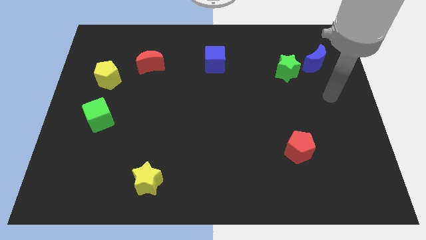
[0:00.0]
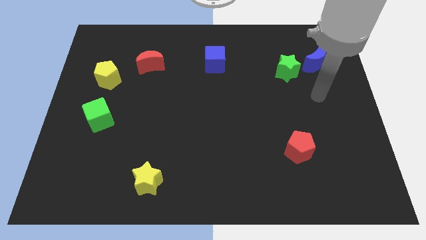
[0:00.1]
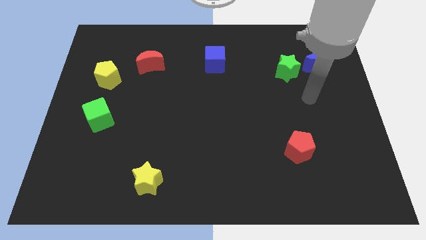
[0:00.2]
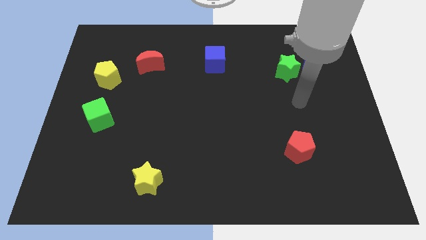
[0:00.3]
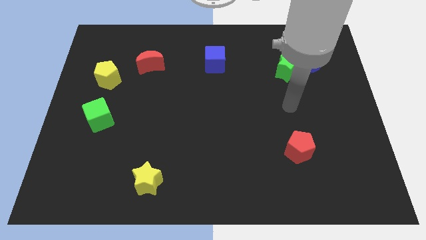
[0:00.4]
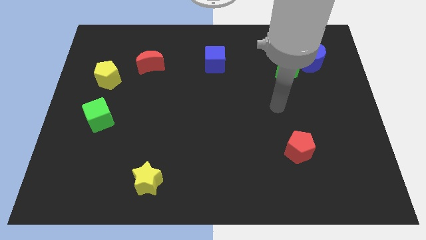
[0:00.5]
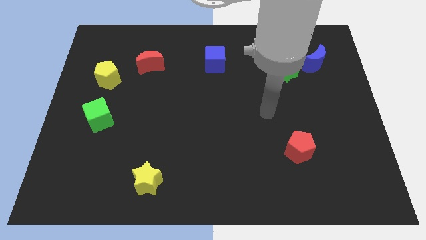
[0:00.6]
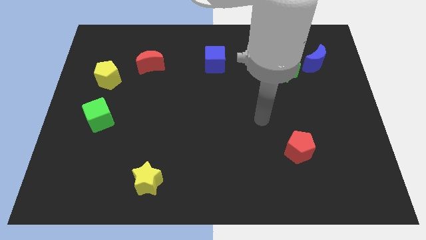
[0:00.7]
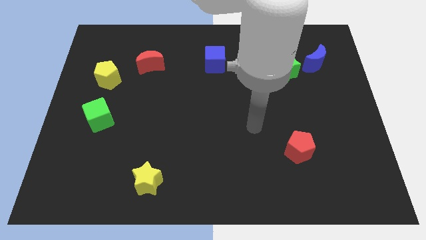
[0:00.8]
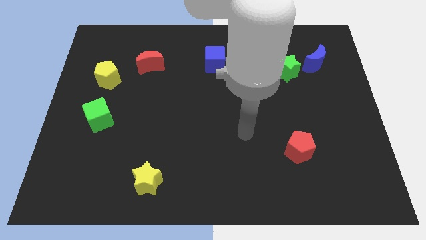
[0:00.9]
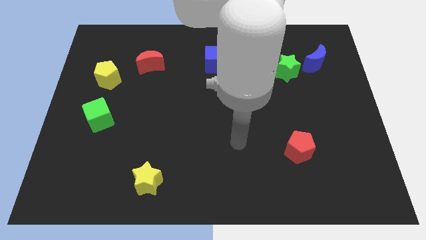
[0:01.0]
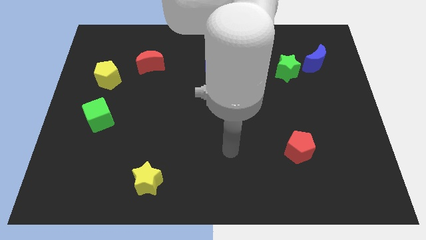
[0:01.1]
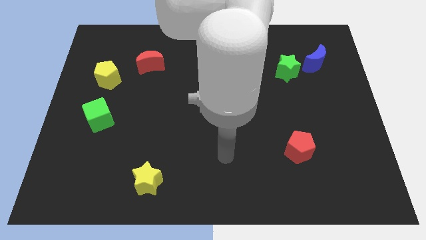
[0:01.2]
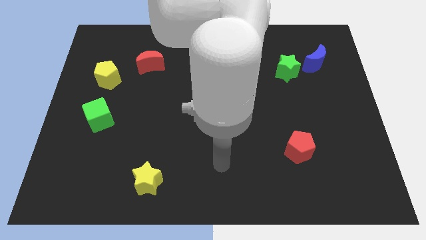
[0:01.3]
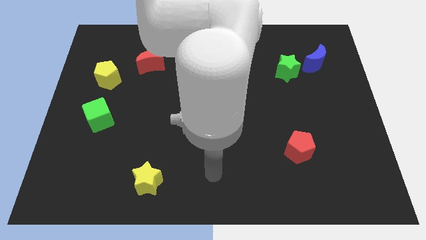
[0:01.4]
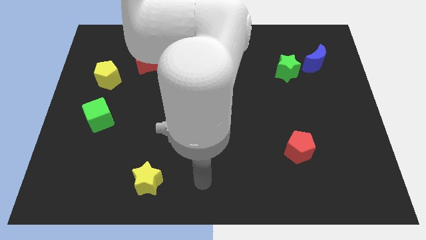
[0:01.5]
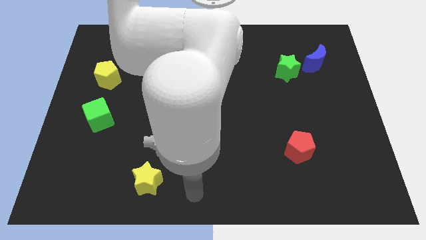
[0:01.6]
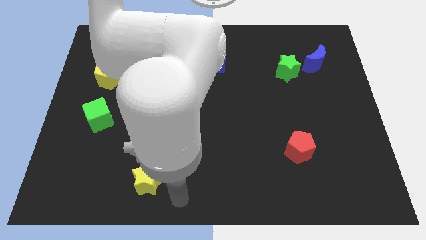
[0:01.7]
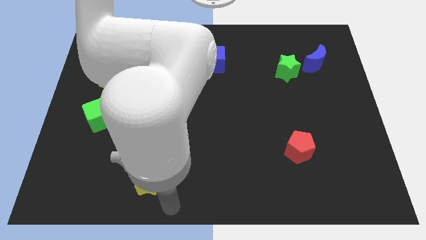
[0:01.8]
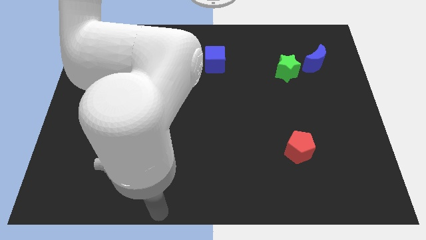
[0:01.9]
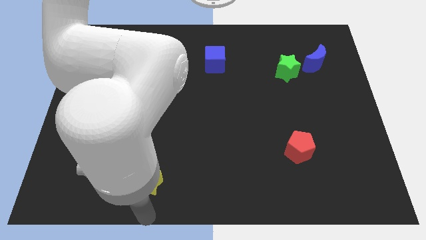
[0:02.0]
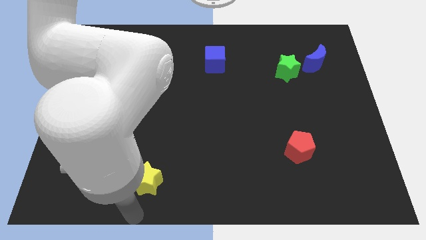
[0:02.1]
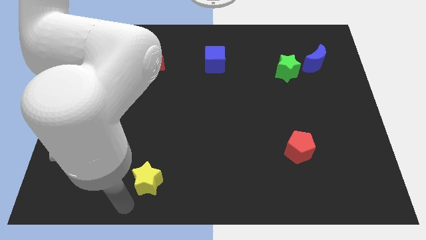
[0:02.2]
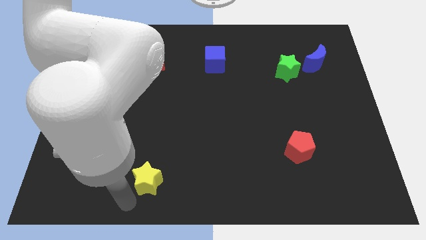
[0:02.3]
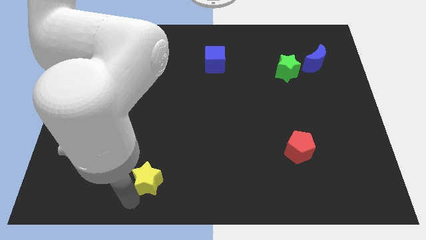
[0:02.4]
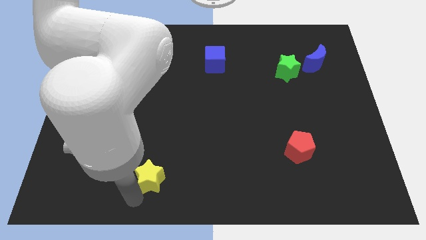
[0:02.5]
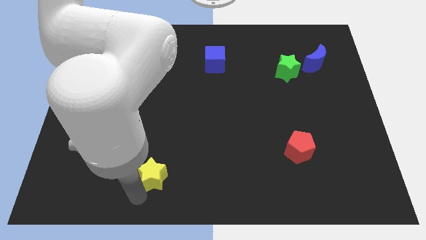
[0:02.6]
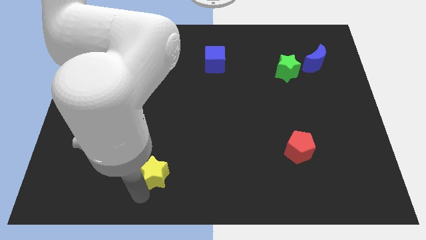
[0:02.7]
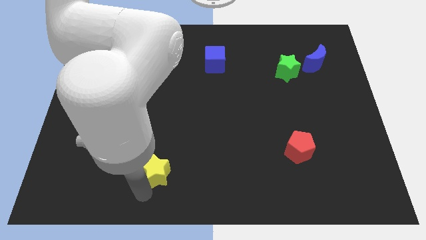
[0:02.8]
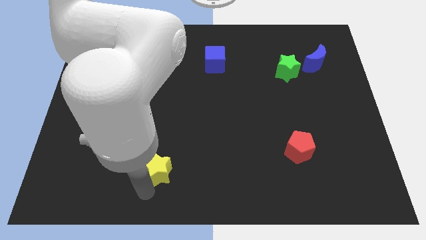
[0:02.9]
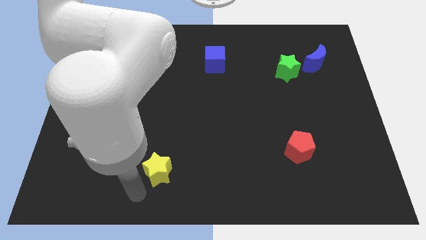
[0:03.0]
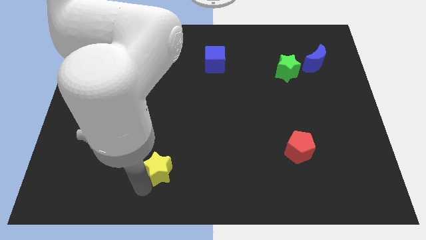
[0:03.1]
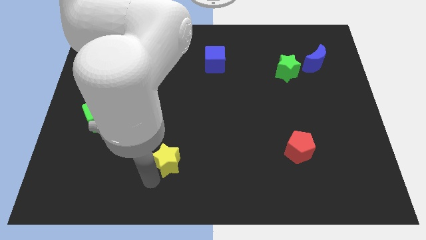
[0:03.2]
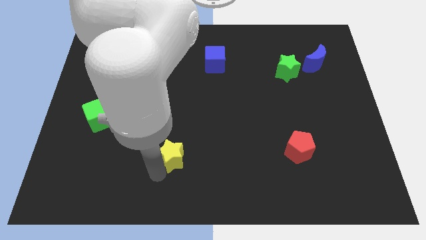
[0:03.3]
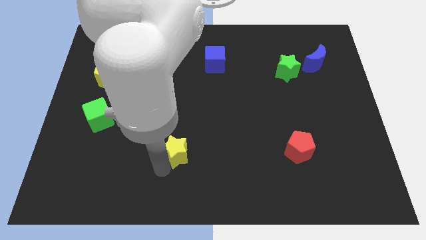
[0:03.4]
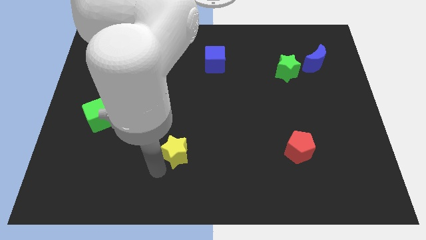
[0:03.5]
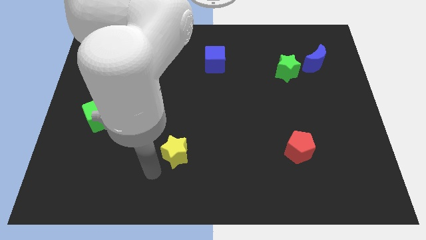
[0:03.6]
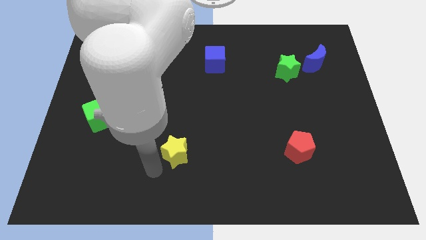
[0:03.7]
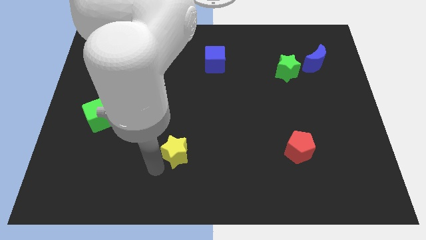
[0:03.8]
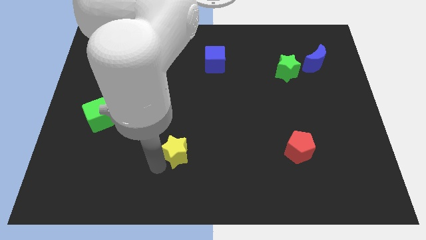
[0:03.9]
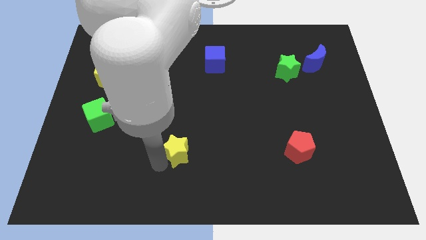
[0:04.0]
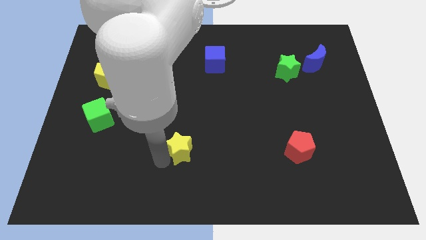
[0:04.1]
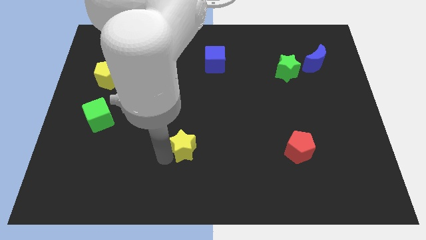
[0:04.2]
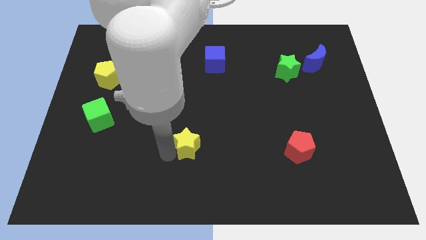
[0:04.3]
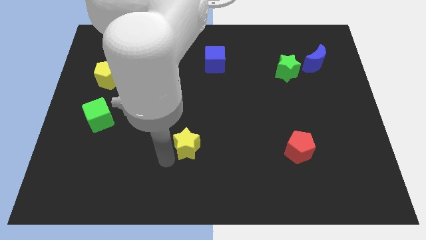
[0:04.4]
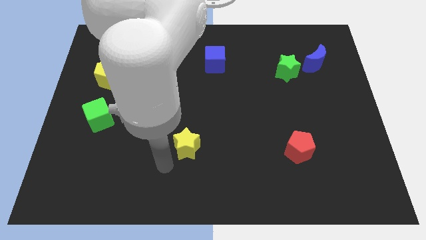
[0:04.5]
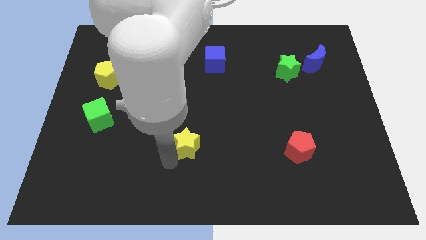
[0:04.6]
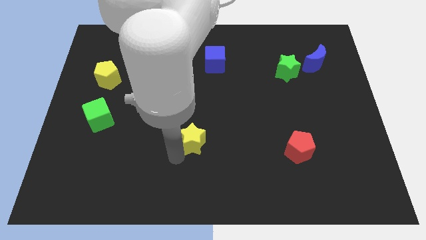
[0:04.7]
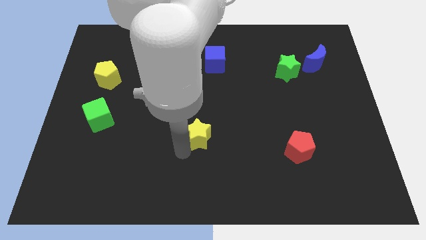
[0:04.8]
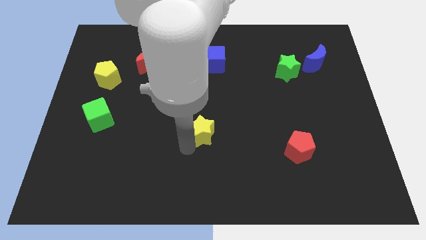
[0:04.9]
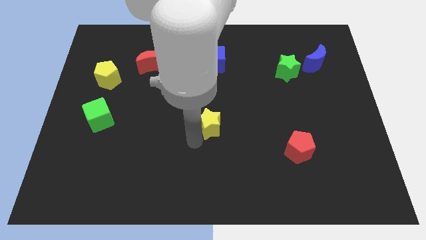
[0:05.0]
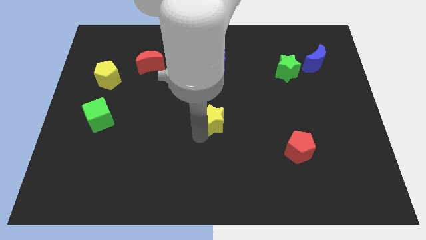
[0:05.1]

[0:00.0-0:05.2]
move the yellow star upwards and to the right diagonally

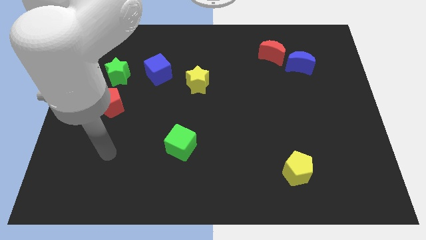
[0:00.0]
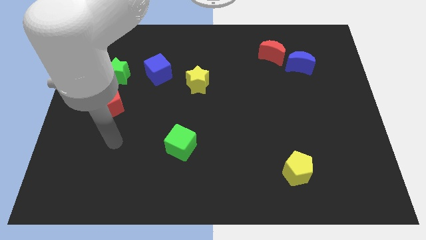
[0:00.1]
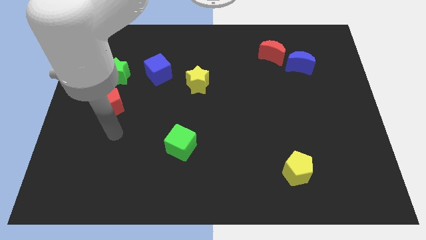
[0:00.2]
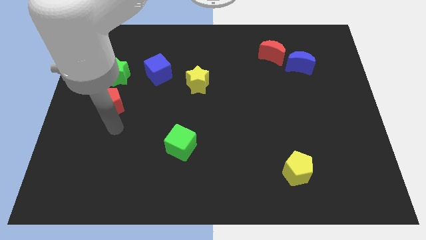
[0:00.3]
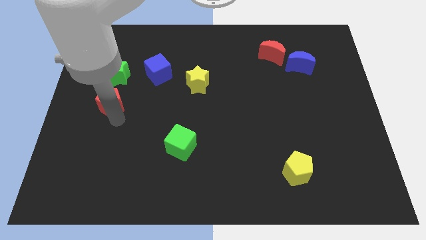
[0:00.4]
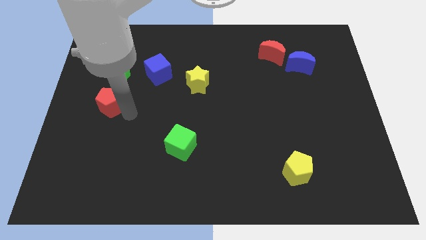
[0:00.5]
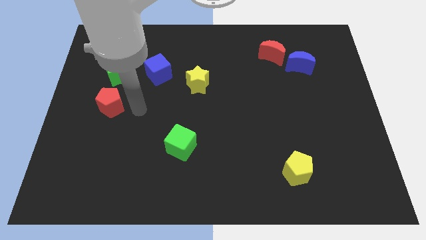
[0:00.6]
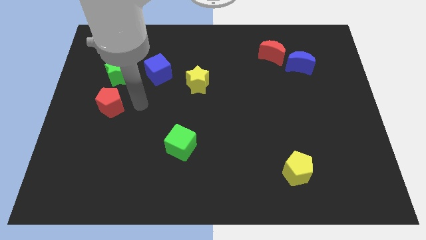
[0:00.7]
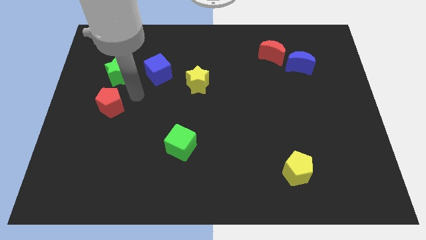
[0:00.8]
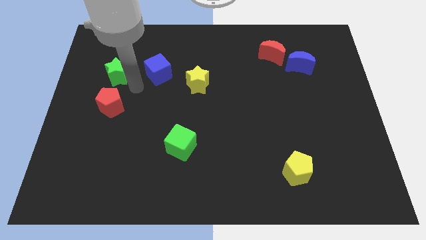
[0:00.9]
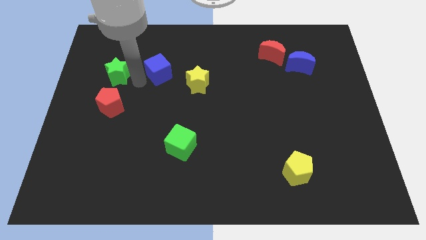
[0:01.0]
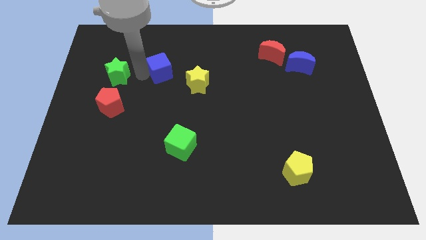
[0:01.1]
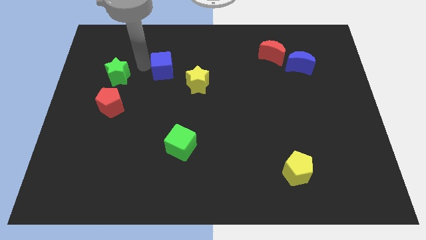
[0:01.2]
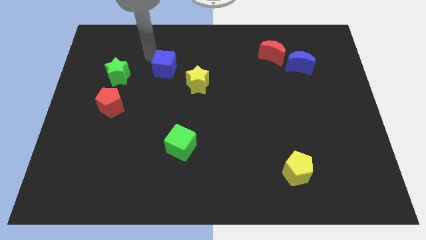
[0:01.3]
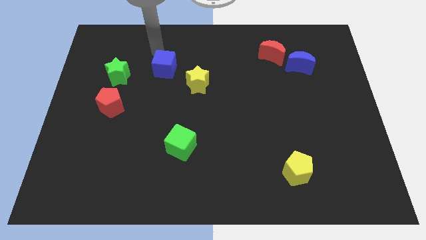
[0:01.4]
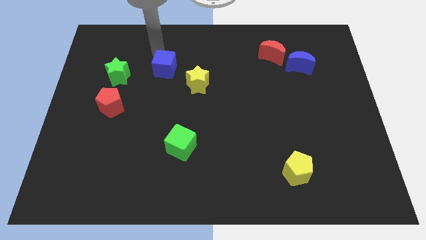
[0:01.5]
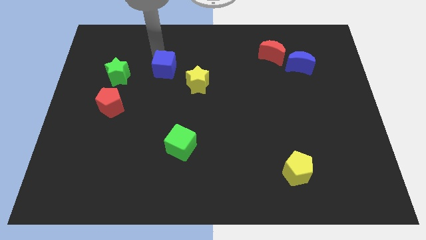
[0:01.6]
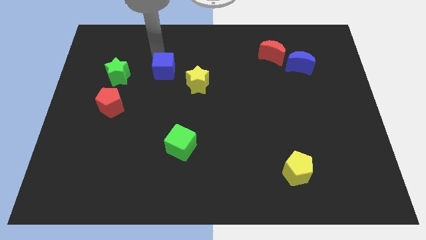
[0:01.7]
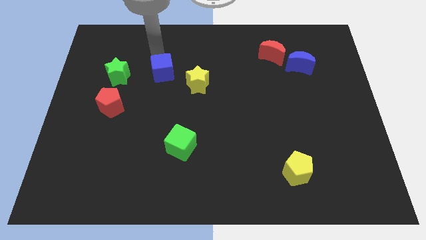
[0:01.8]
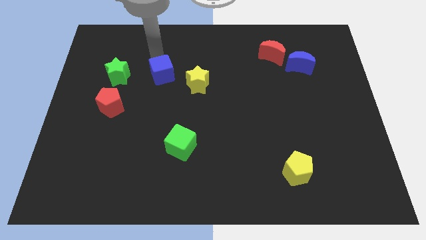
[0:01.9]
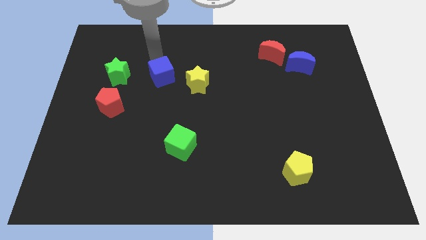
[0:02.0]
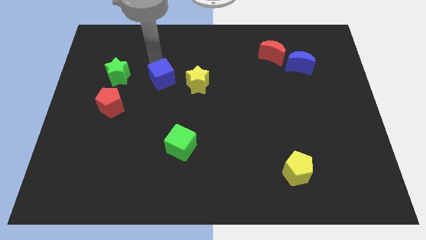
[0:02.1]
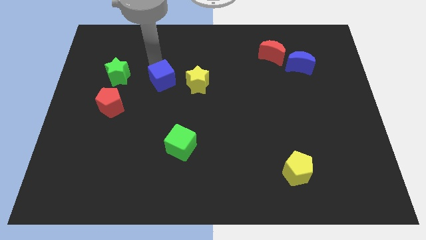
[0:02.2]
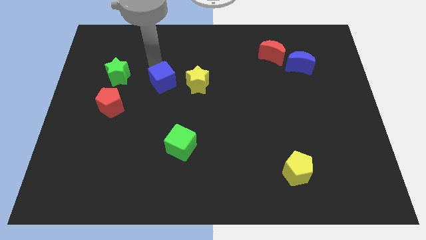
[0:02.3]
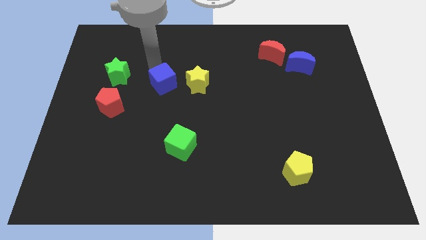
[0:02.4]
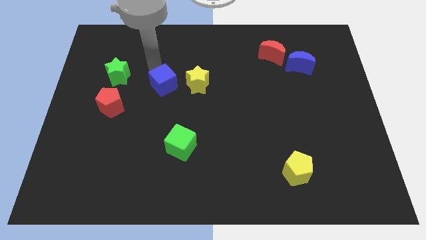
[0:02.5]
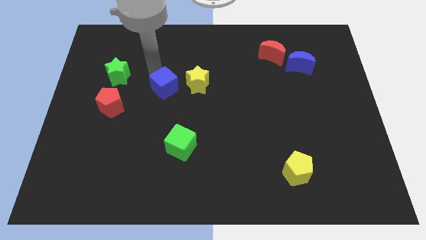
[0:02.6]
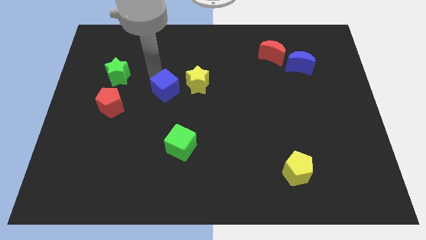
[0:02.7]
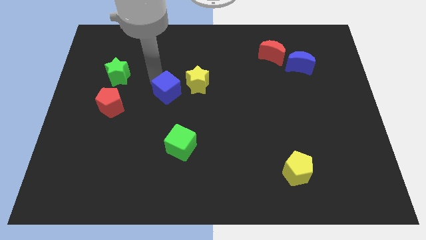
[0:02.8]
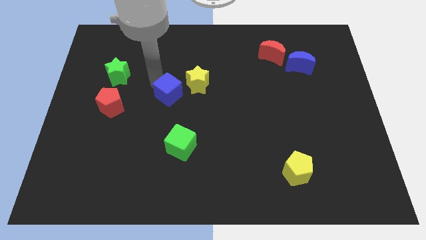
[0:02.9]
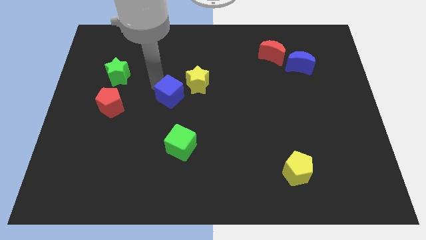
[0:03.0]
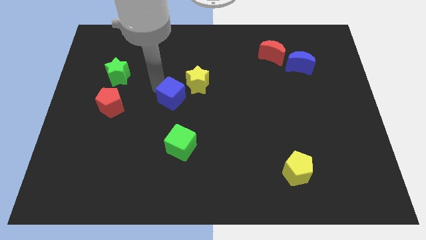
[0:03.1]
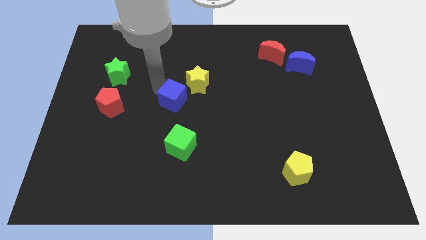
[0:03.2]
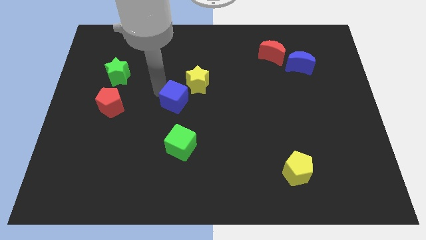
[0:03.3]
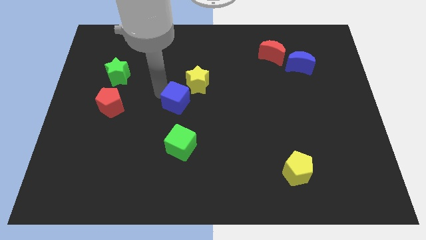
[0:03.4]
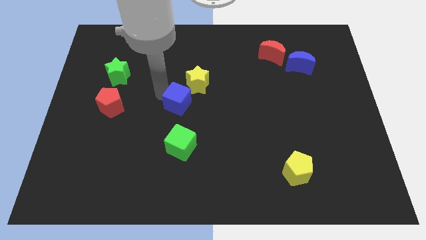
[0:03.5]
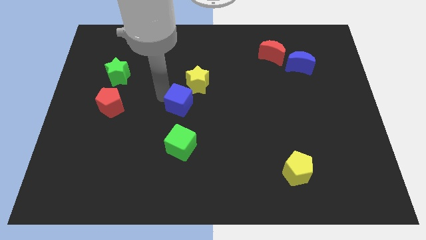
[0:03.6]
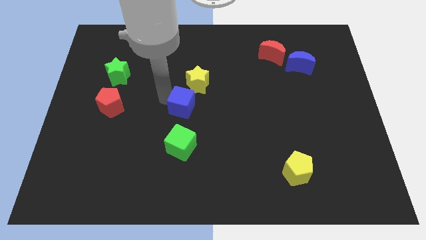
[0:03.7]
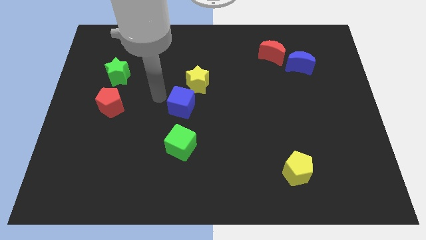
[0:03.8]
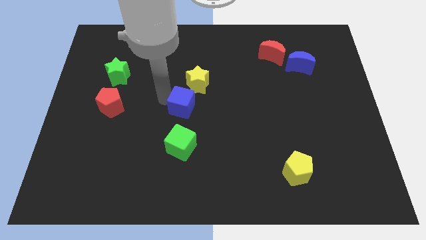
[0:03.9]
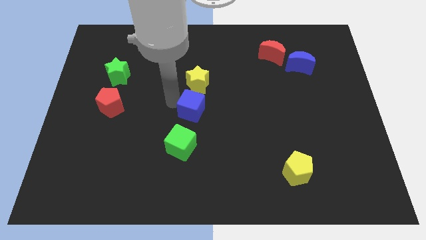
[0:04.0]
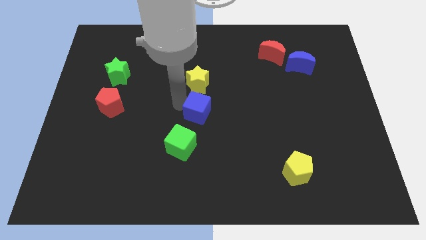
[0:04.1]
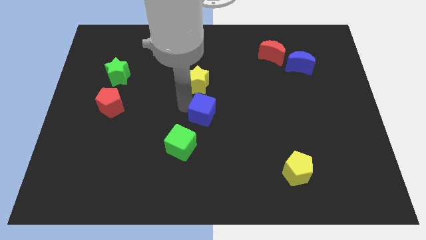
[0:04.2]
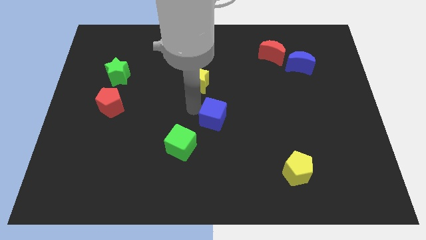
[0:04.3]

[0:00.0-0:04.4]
slide the blue cube downwards and then right
